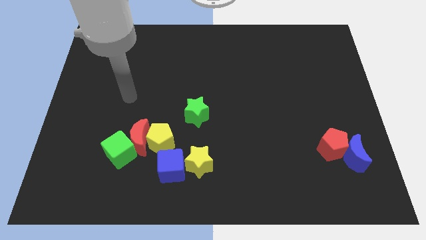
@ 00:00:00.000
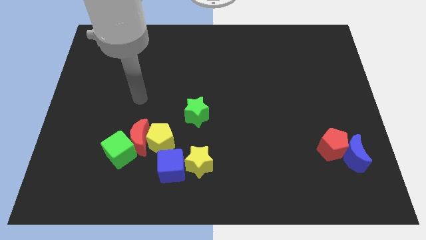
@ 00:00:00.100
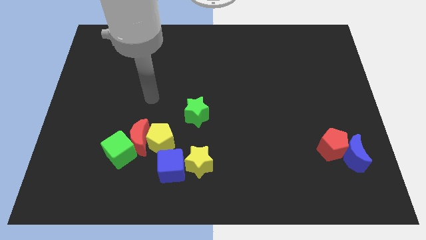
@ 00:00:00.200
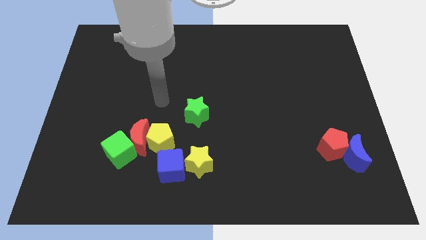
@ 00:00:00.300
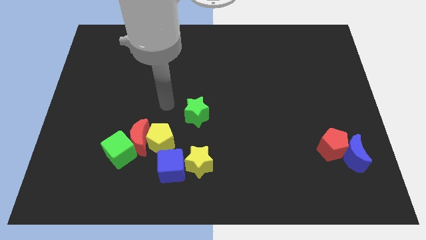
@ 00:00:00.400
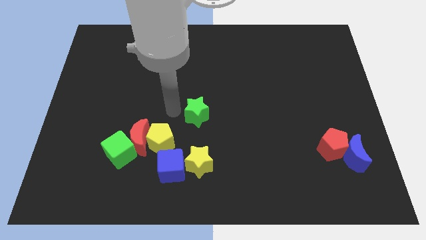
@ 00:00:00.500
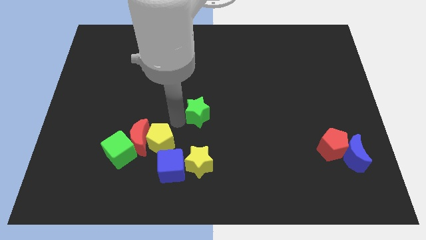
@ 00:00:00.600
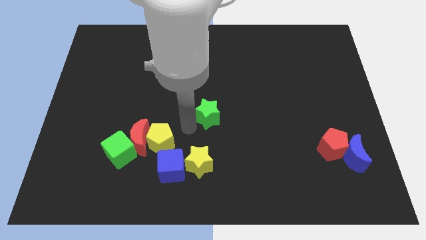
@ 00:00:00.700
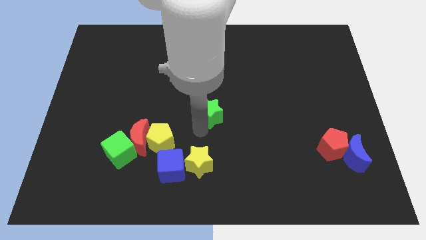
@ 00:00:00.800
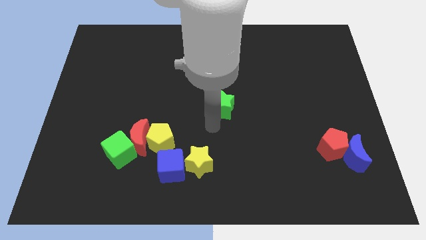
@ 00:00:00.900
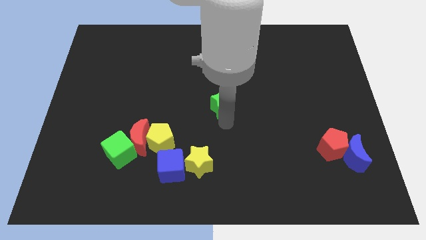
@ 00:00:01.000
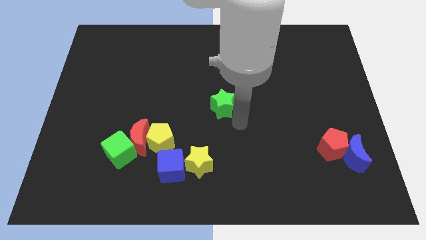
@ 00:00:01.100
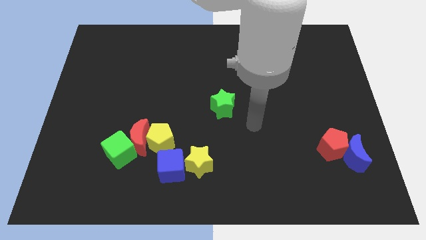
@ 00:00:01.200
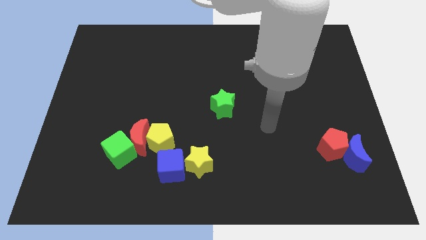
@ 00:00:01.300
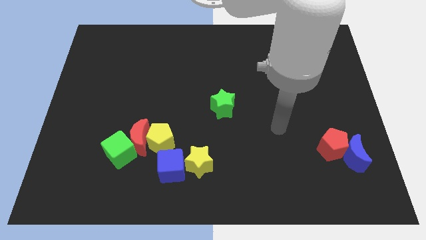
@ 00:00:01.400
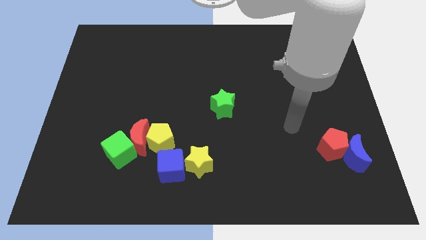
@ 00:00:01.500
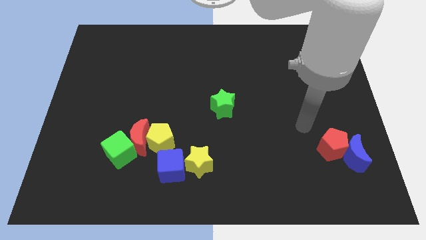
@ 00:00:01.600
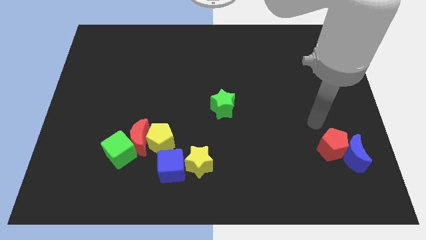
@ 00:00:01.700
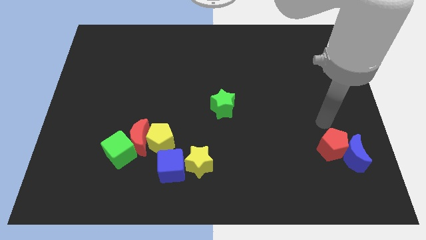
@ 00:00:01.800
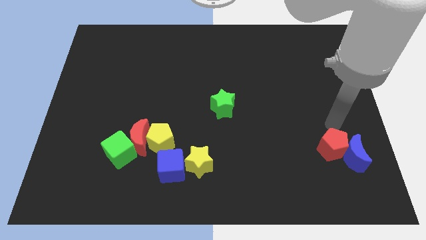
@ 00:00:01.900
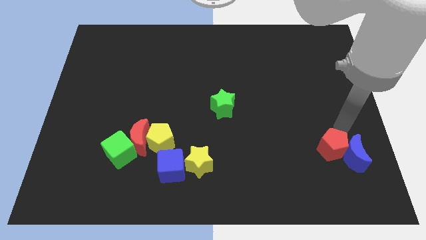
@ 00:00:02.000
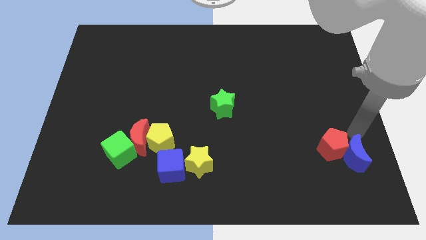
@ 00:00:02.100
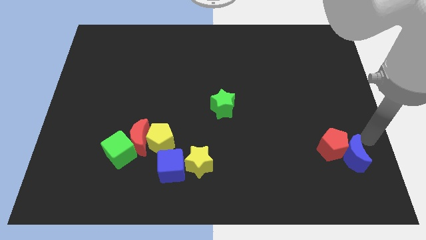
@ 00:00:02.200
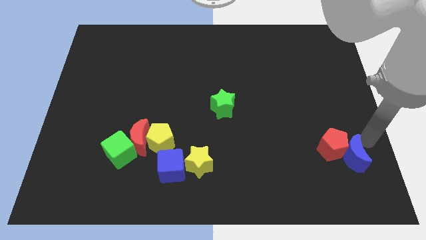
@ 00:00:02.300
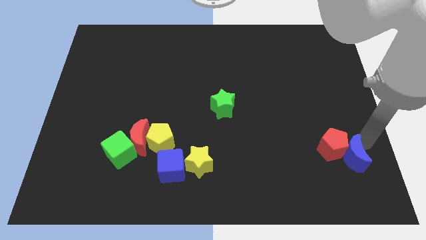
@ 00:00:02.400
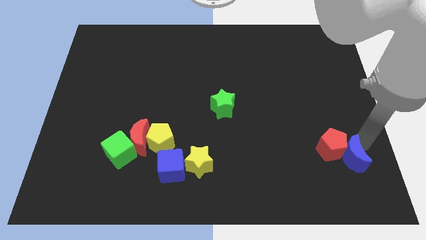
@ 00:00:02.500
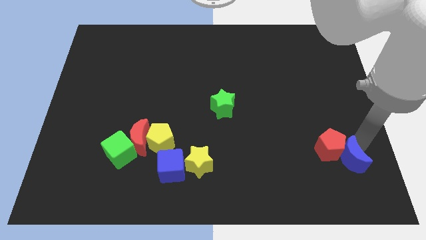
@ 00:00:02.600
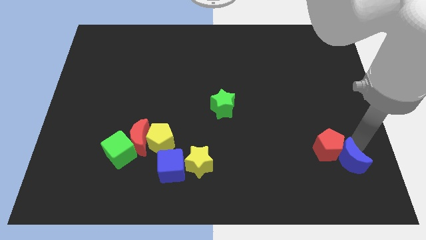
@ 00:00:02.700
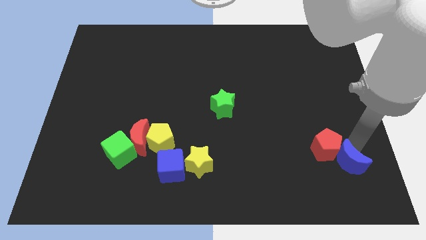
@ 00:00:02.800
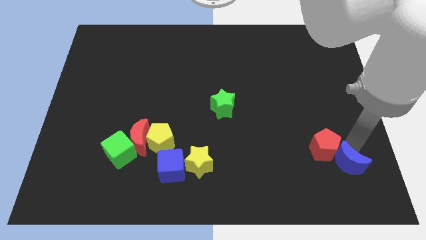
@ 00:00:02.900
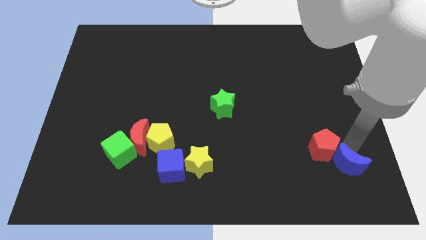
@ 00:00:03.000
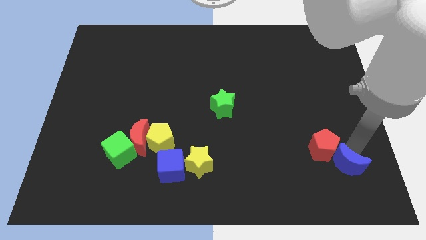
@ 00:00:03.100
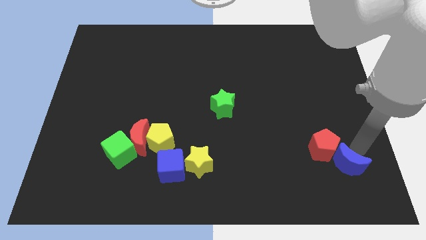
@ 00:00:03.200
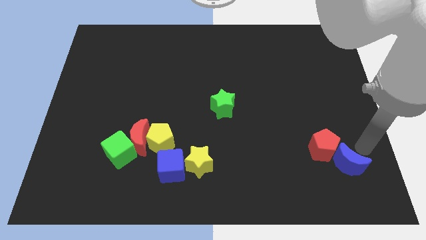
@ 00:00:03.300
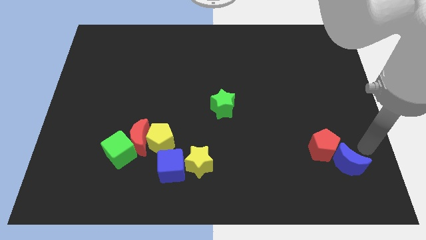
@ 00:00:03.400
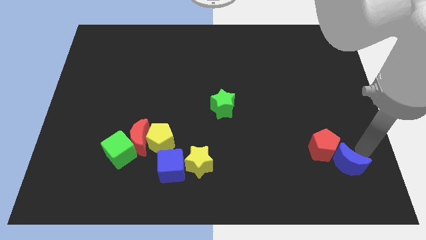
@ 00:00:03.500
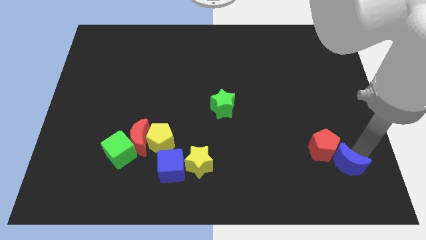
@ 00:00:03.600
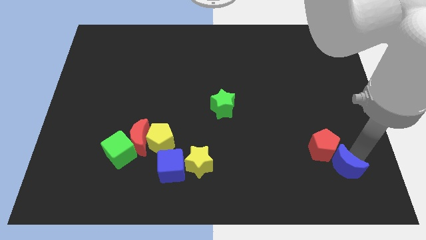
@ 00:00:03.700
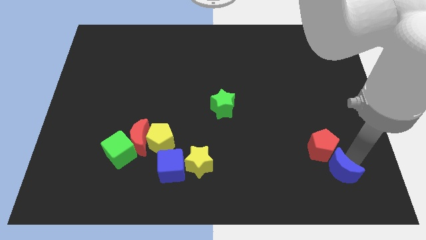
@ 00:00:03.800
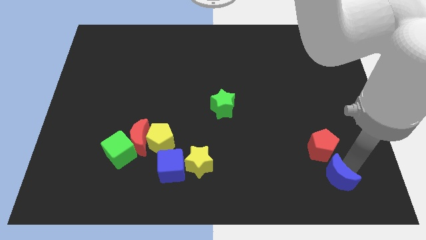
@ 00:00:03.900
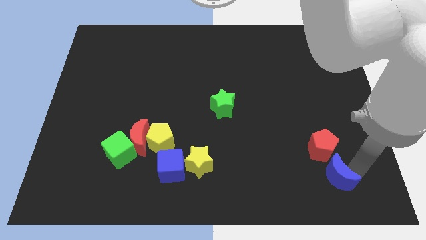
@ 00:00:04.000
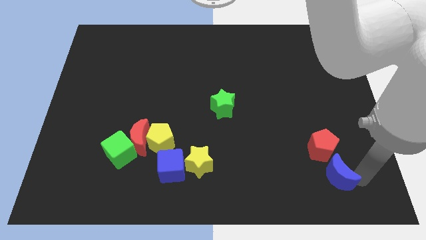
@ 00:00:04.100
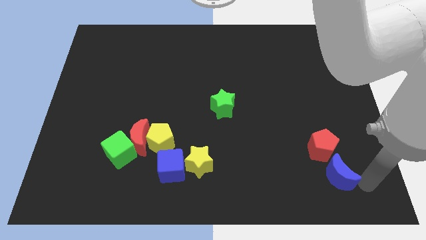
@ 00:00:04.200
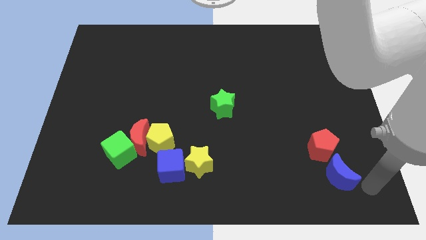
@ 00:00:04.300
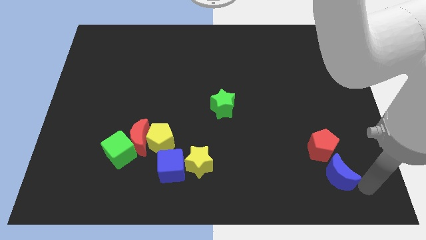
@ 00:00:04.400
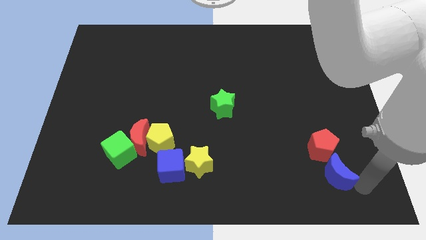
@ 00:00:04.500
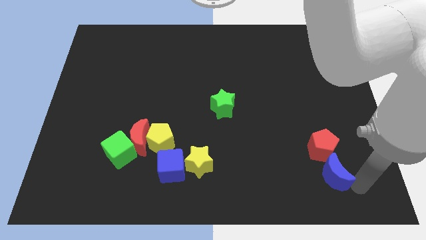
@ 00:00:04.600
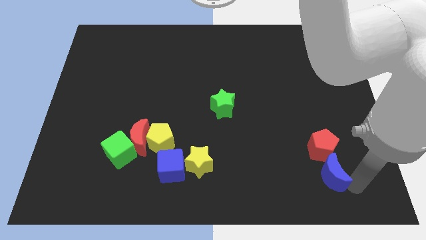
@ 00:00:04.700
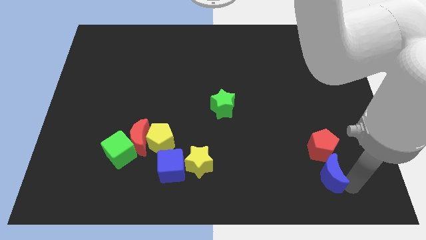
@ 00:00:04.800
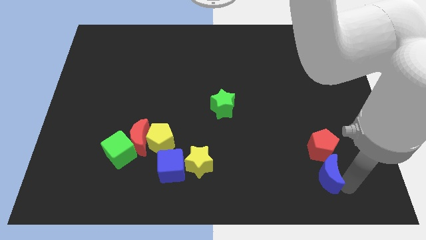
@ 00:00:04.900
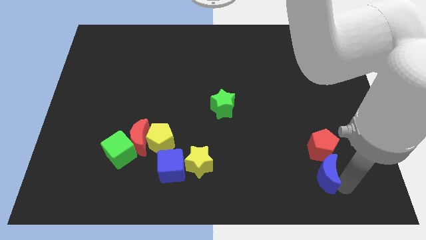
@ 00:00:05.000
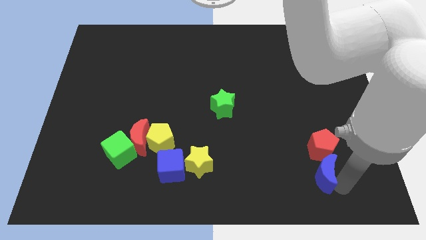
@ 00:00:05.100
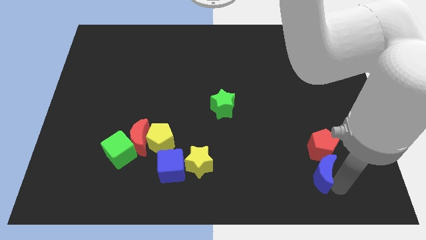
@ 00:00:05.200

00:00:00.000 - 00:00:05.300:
move the blue moon somewhat to the left

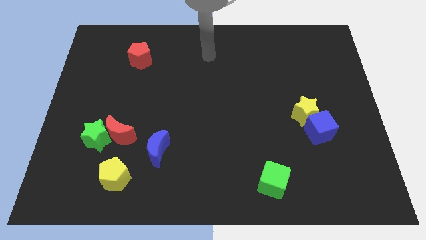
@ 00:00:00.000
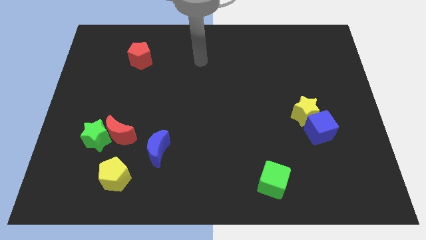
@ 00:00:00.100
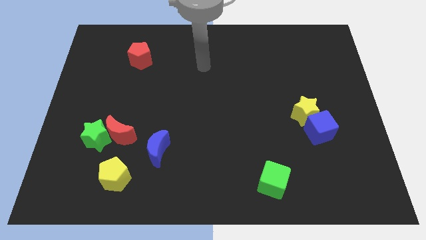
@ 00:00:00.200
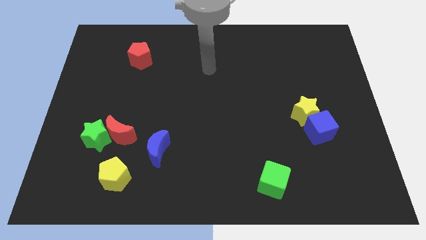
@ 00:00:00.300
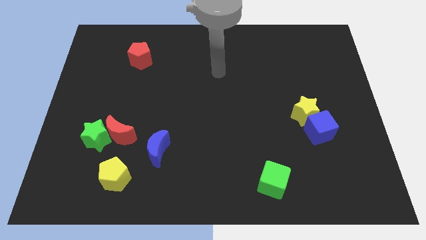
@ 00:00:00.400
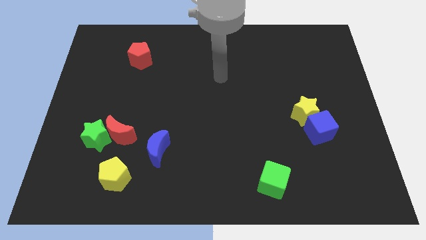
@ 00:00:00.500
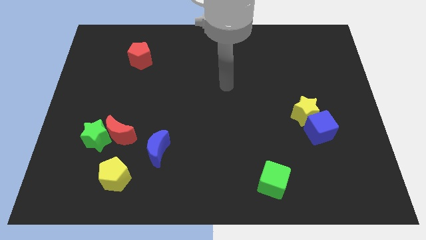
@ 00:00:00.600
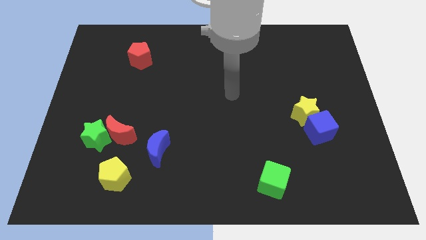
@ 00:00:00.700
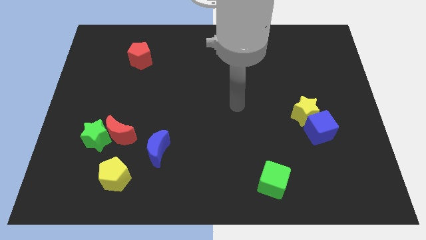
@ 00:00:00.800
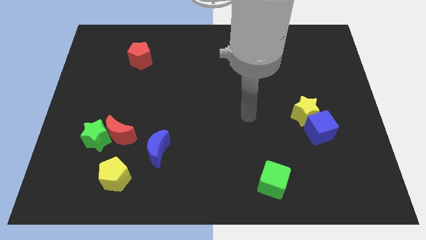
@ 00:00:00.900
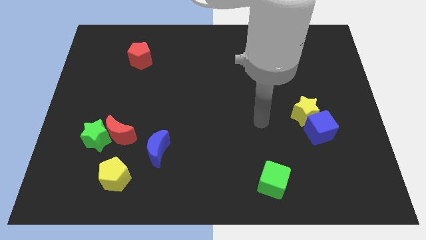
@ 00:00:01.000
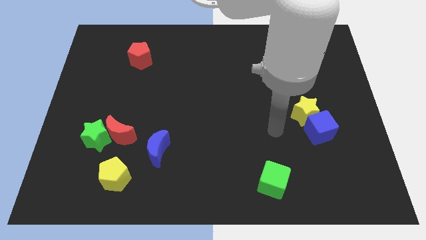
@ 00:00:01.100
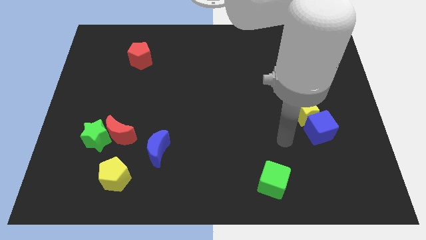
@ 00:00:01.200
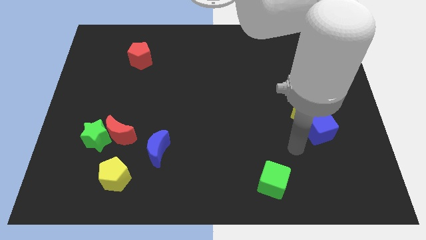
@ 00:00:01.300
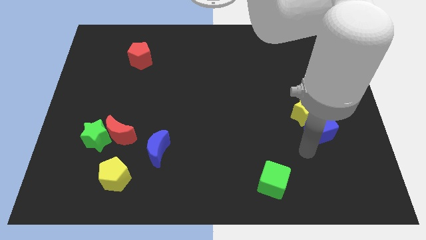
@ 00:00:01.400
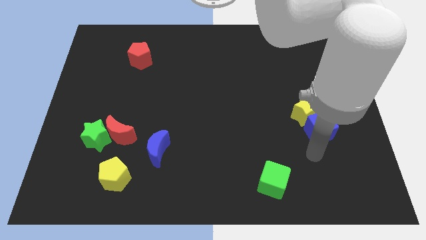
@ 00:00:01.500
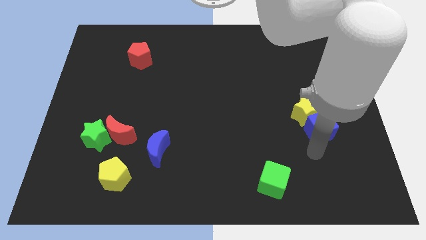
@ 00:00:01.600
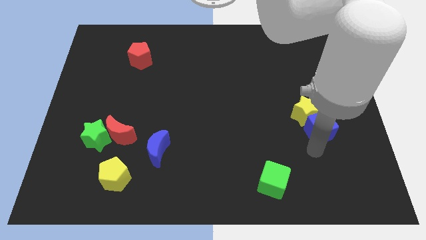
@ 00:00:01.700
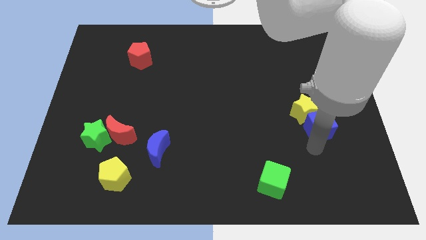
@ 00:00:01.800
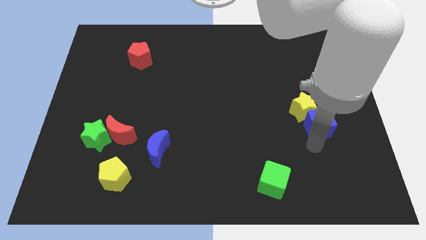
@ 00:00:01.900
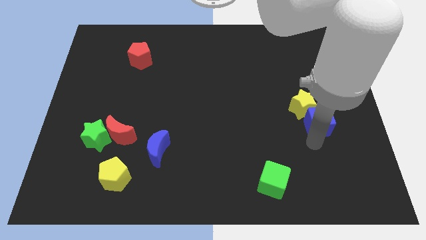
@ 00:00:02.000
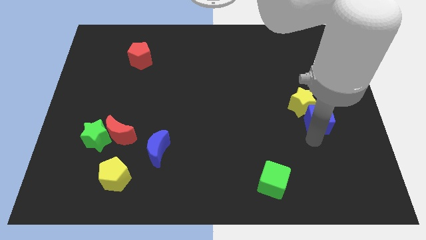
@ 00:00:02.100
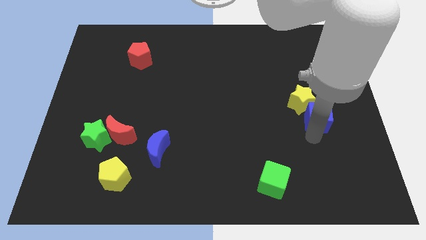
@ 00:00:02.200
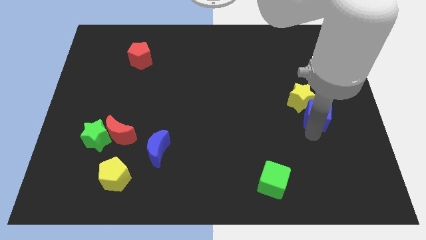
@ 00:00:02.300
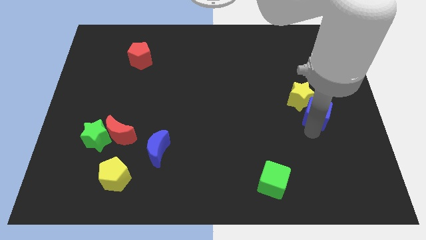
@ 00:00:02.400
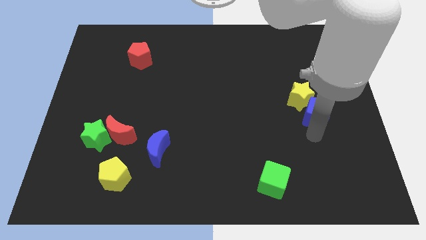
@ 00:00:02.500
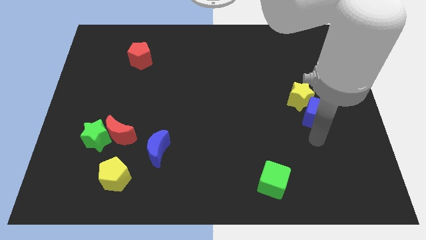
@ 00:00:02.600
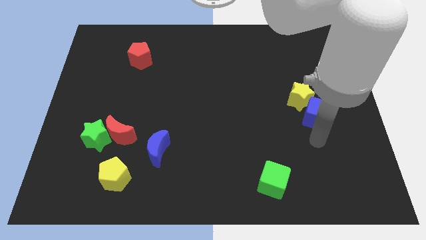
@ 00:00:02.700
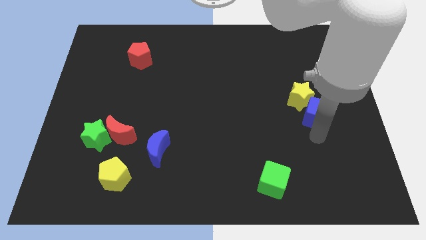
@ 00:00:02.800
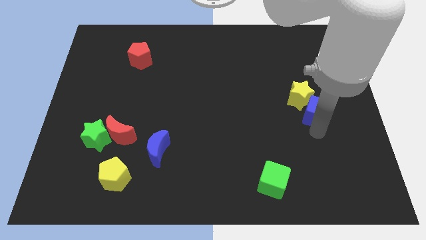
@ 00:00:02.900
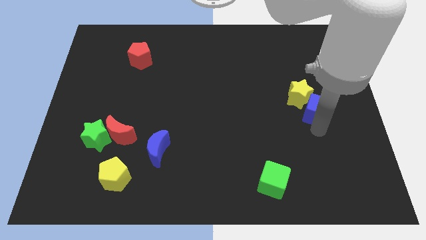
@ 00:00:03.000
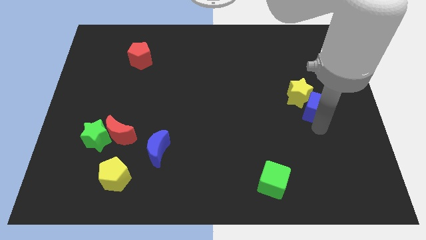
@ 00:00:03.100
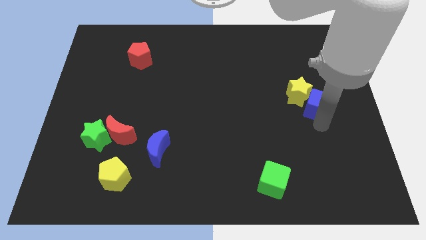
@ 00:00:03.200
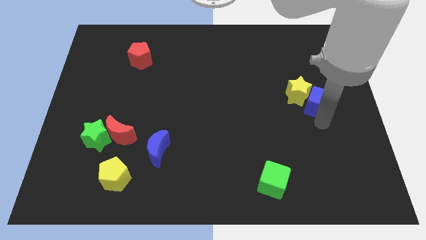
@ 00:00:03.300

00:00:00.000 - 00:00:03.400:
move the blue cube up a little bit
